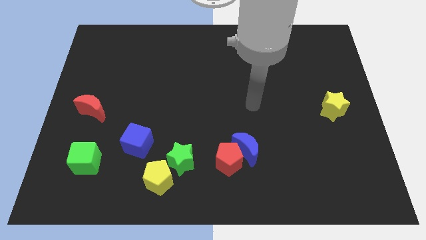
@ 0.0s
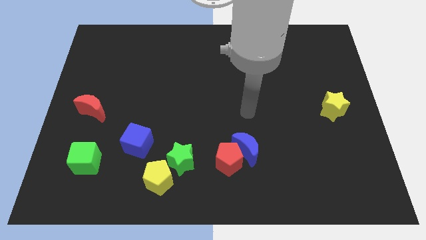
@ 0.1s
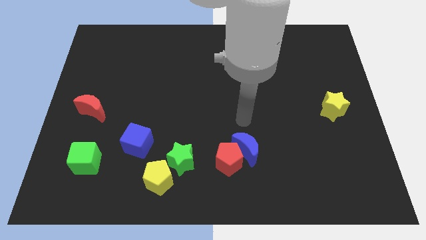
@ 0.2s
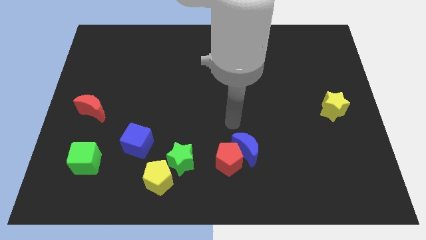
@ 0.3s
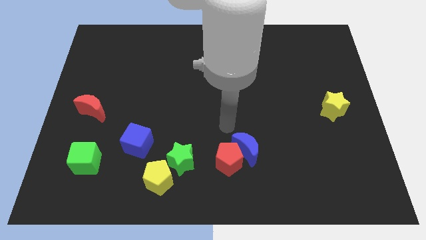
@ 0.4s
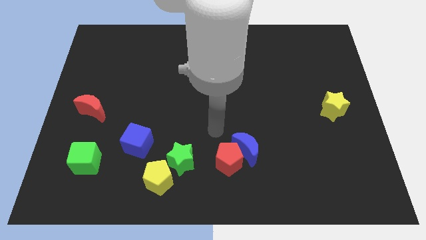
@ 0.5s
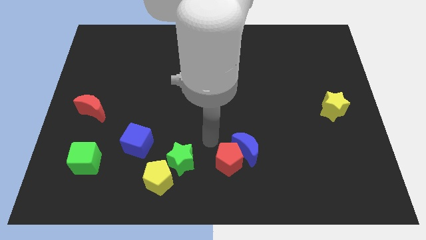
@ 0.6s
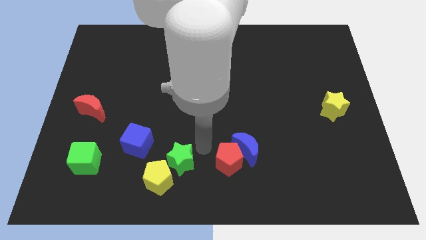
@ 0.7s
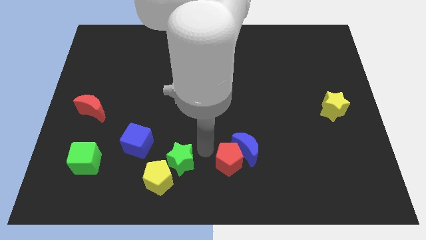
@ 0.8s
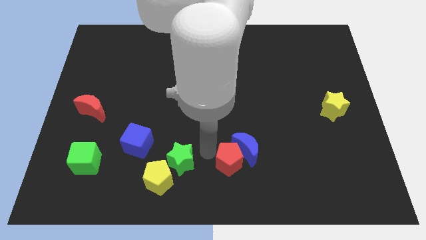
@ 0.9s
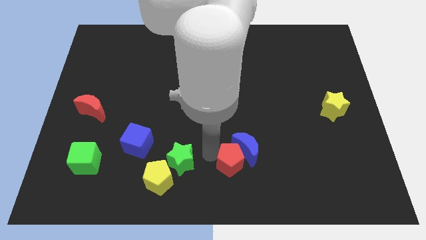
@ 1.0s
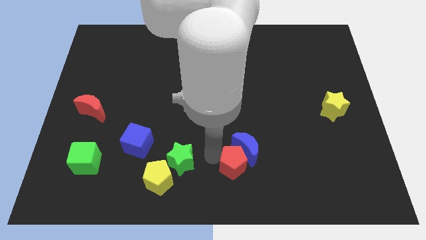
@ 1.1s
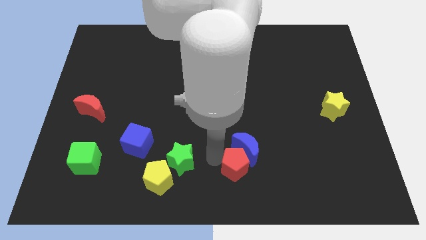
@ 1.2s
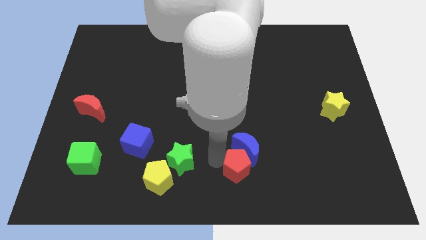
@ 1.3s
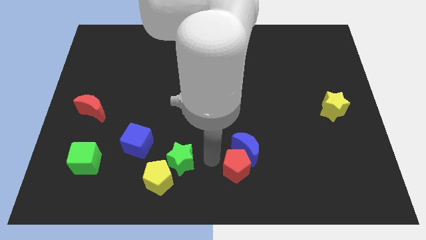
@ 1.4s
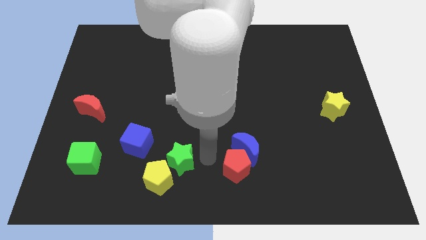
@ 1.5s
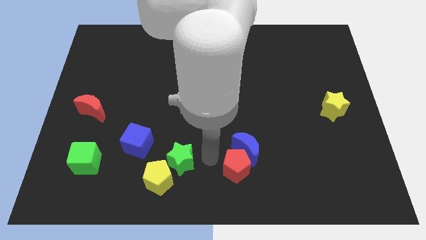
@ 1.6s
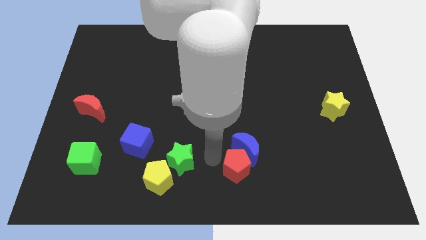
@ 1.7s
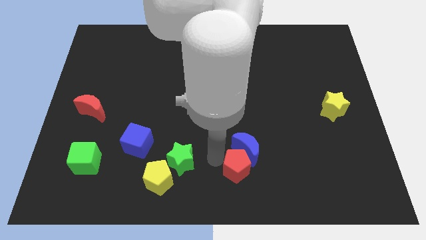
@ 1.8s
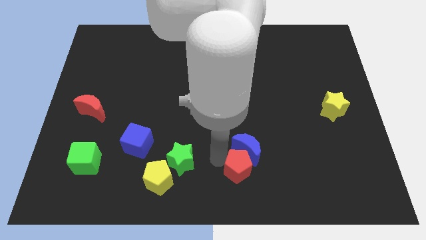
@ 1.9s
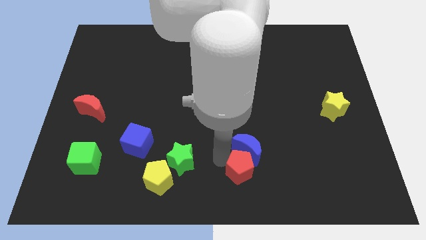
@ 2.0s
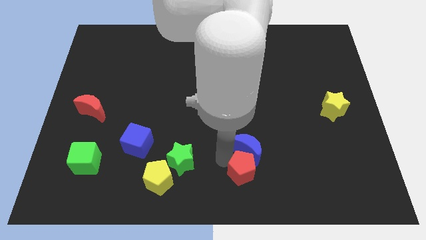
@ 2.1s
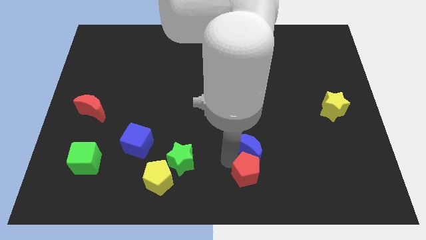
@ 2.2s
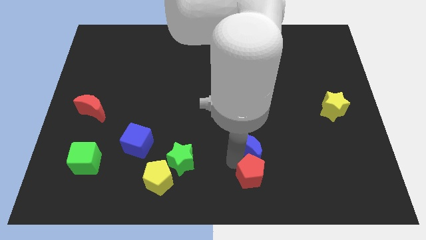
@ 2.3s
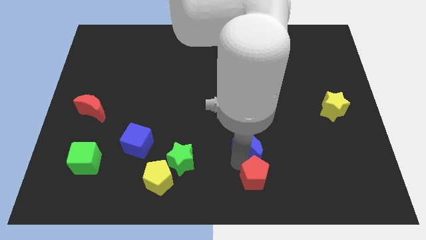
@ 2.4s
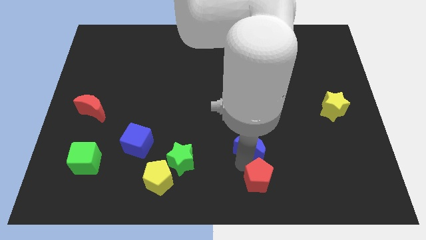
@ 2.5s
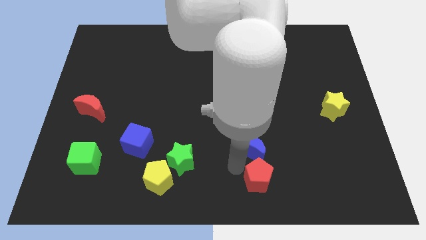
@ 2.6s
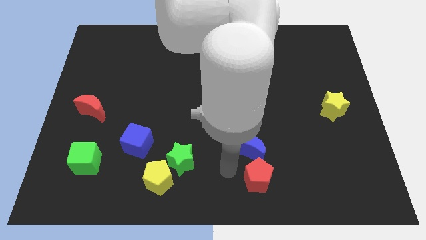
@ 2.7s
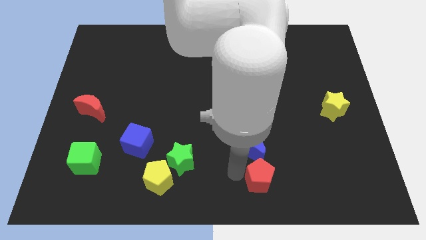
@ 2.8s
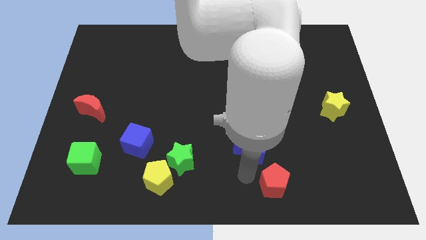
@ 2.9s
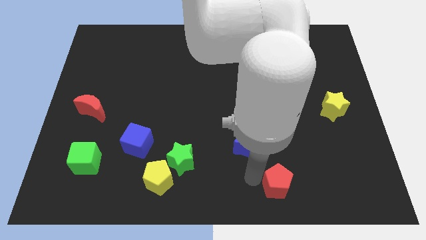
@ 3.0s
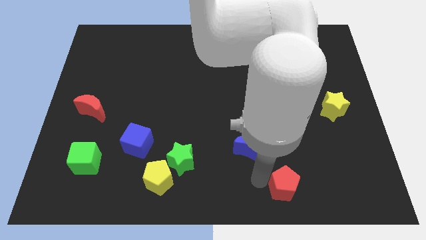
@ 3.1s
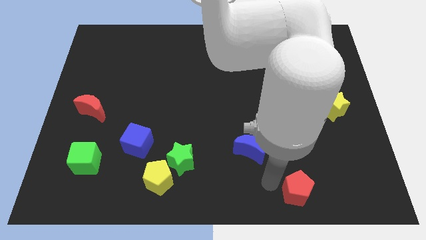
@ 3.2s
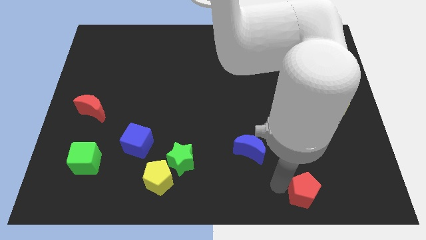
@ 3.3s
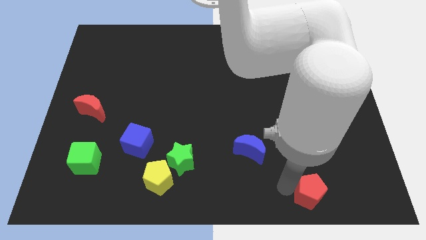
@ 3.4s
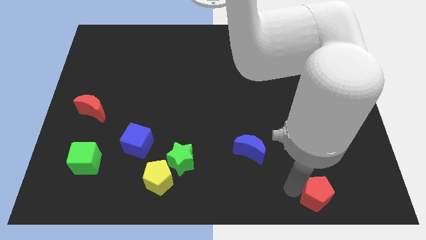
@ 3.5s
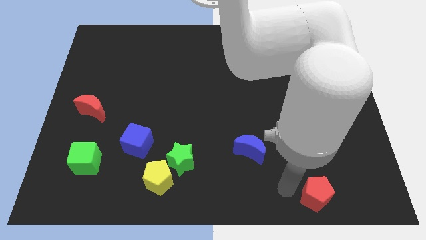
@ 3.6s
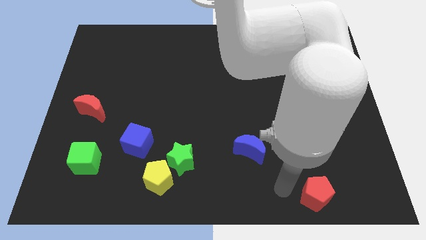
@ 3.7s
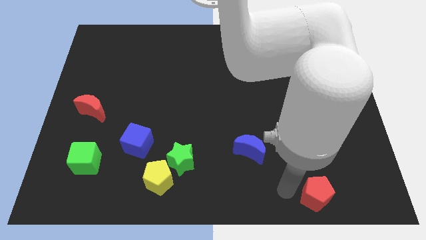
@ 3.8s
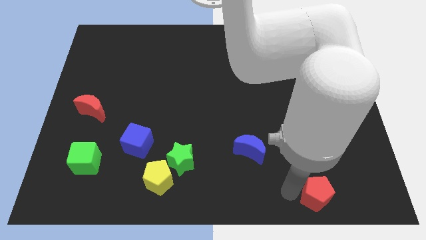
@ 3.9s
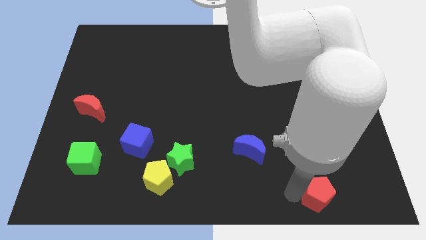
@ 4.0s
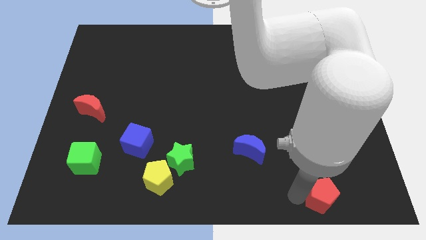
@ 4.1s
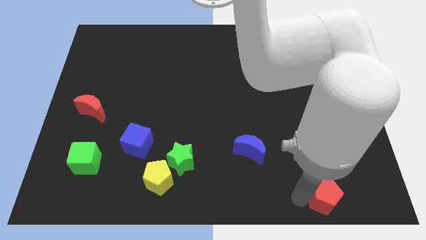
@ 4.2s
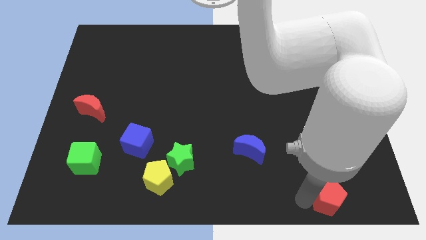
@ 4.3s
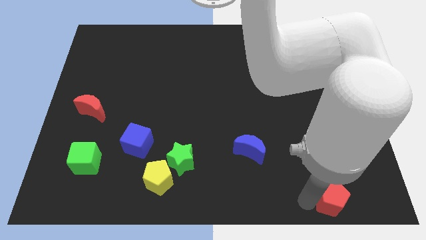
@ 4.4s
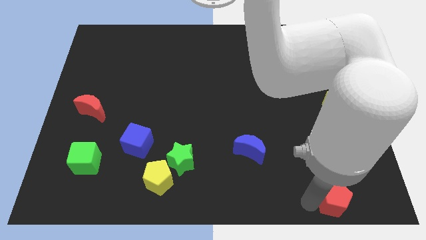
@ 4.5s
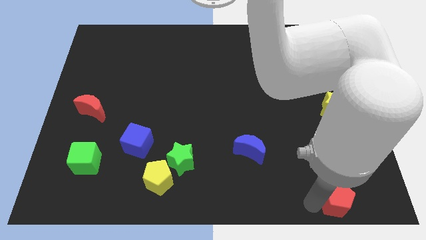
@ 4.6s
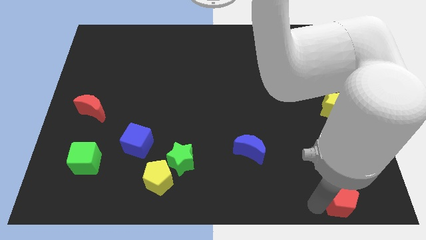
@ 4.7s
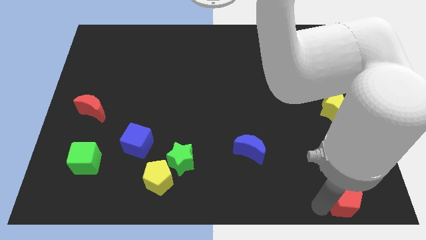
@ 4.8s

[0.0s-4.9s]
slide the red pentagon to the lower right corner

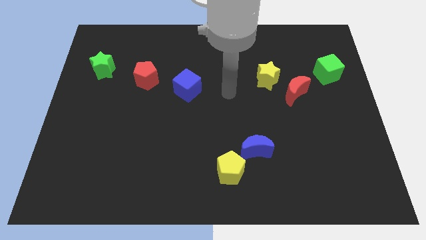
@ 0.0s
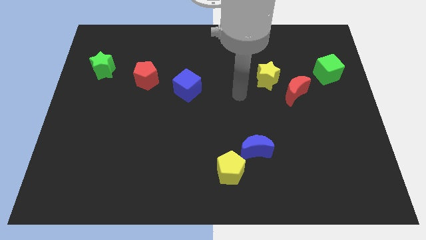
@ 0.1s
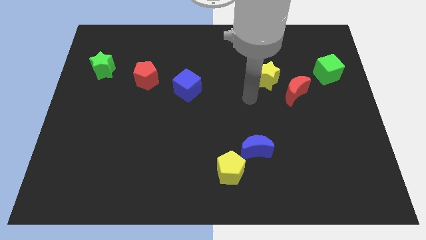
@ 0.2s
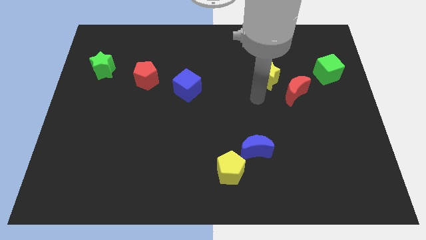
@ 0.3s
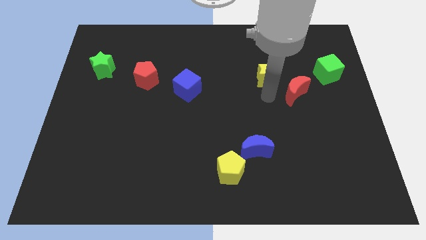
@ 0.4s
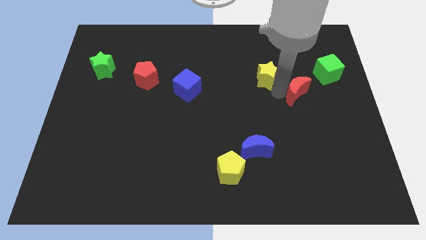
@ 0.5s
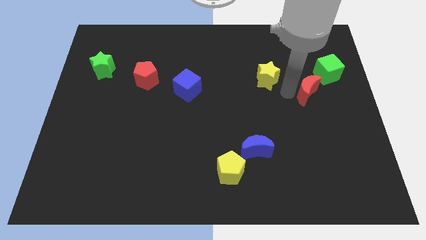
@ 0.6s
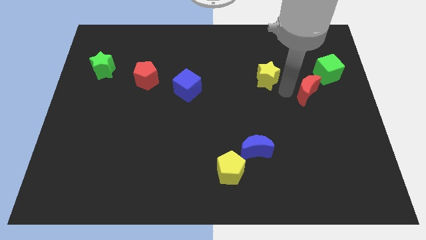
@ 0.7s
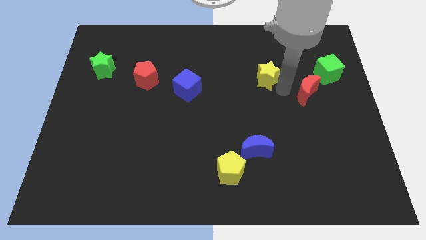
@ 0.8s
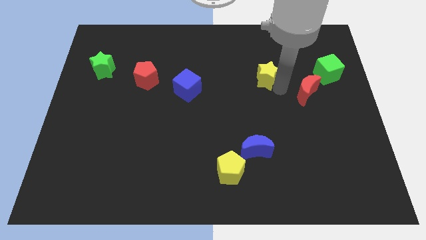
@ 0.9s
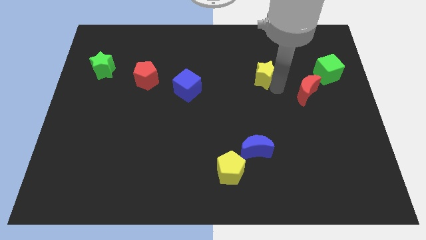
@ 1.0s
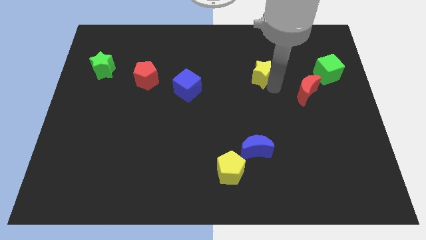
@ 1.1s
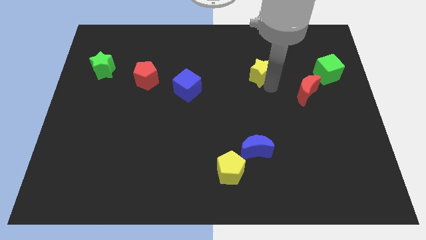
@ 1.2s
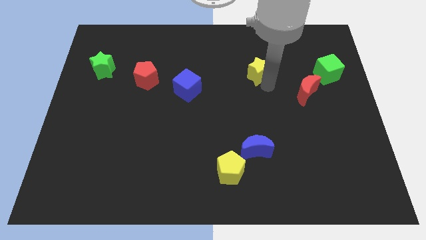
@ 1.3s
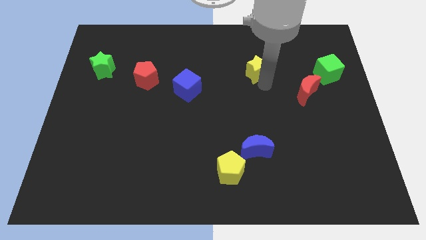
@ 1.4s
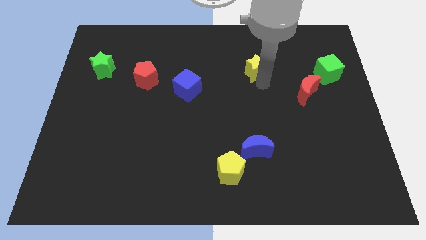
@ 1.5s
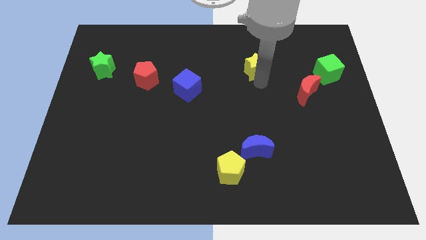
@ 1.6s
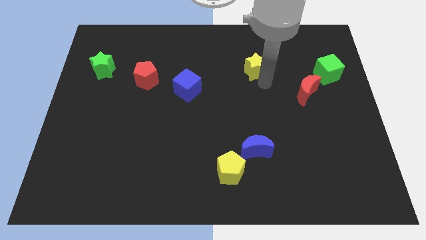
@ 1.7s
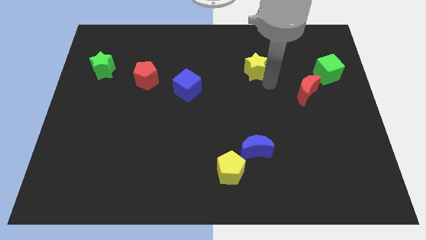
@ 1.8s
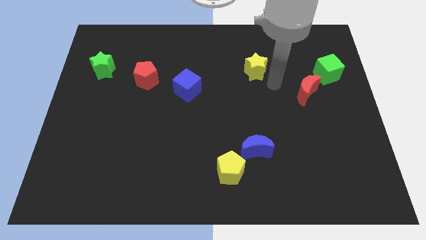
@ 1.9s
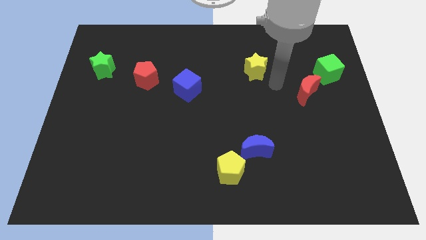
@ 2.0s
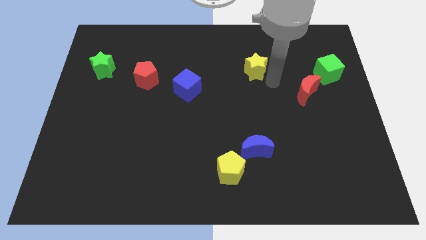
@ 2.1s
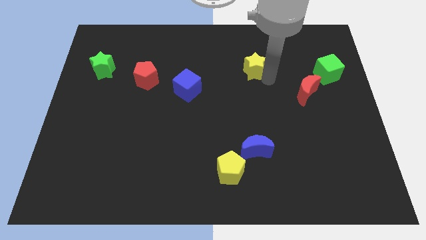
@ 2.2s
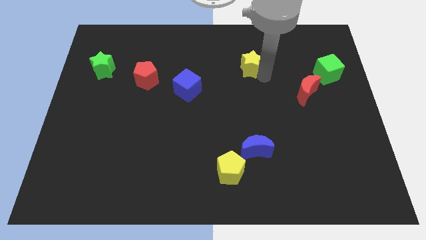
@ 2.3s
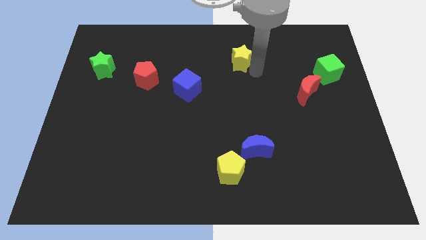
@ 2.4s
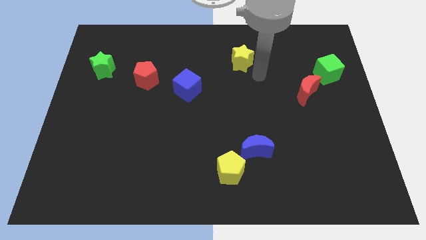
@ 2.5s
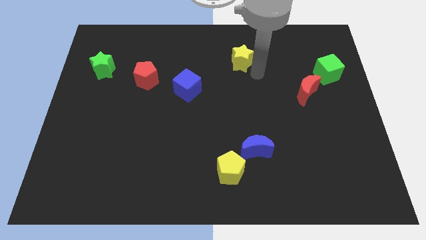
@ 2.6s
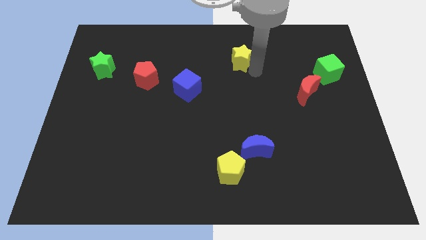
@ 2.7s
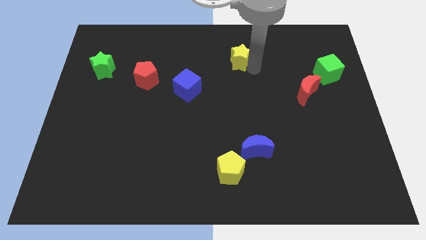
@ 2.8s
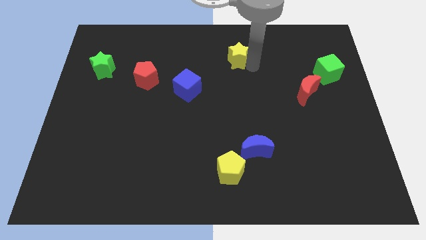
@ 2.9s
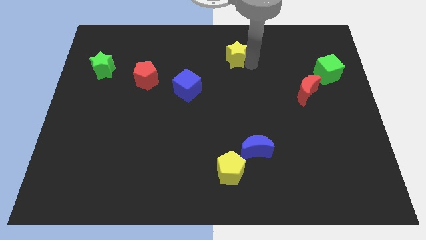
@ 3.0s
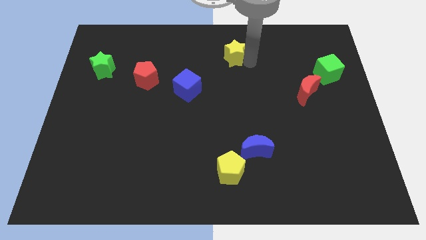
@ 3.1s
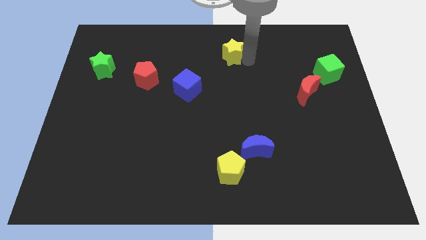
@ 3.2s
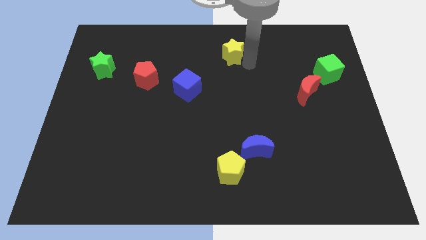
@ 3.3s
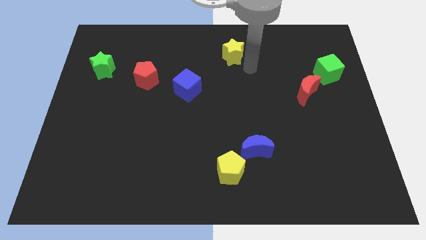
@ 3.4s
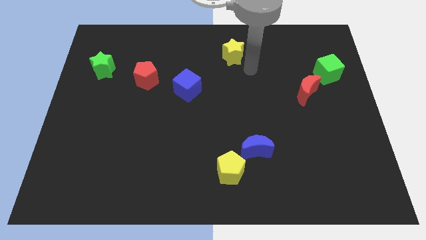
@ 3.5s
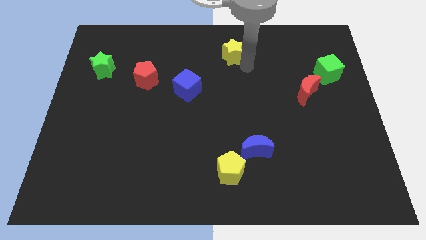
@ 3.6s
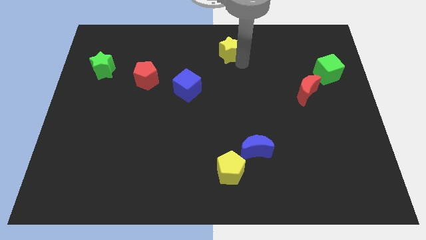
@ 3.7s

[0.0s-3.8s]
move the yellow star to the top
